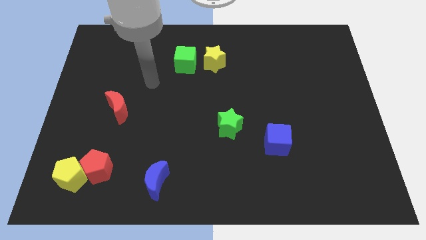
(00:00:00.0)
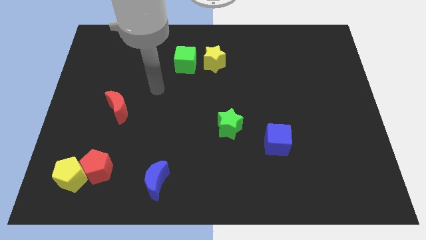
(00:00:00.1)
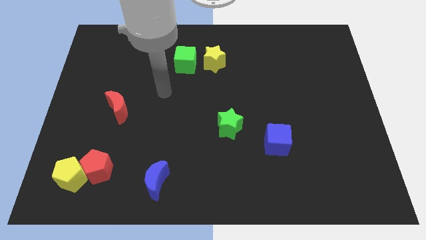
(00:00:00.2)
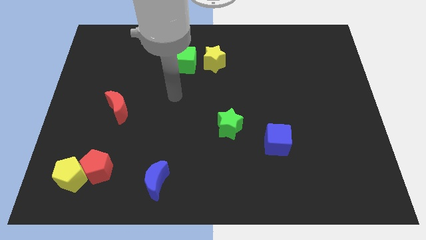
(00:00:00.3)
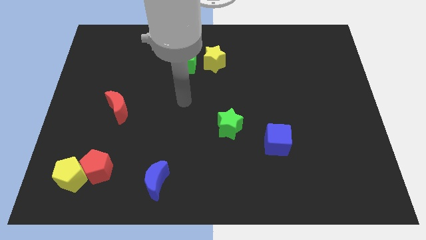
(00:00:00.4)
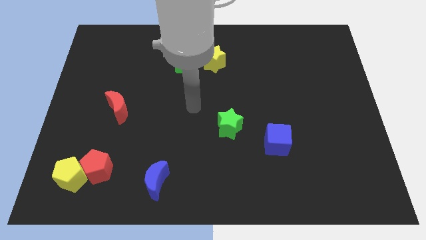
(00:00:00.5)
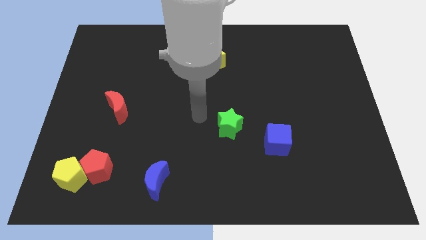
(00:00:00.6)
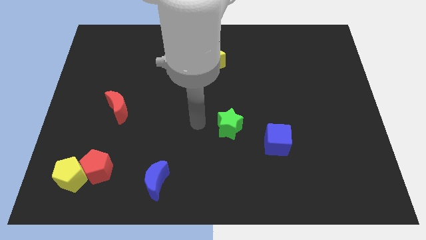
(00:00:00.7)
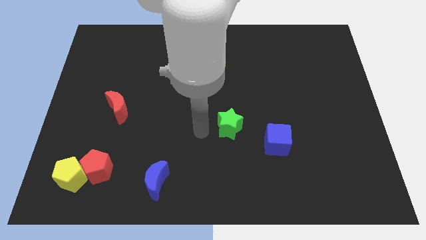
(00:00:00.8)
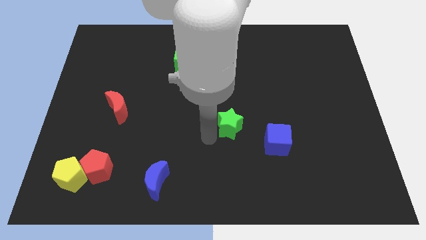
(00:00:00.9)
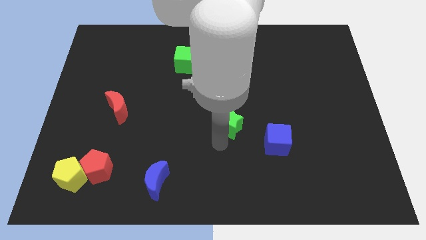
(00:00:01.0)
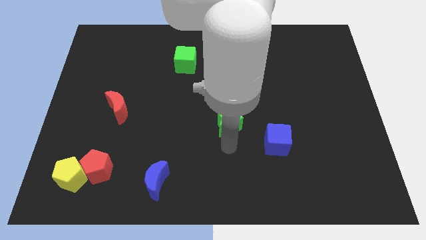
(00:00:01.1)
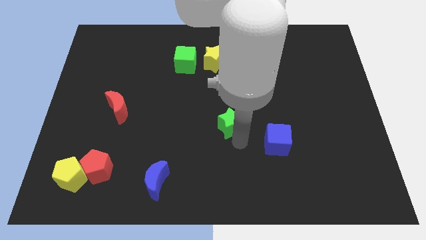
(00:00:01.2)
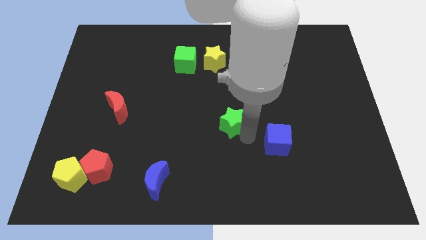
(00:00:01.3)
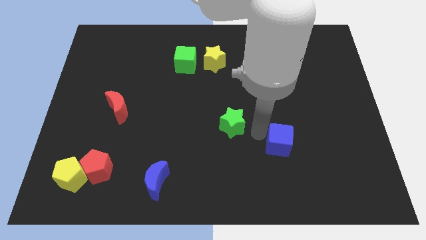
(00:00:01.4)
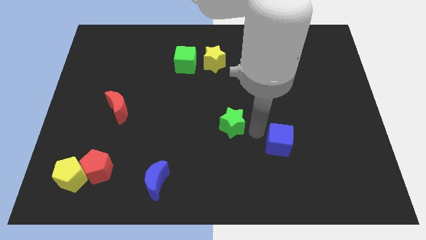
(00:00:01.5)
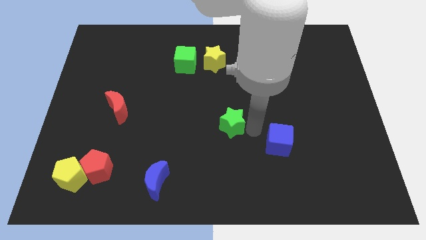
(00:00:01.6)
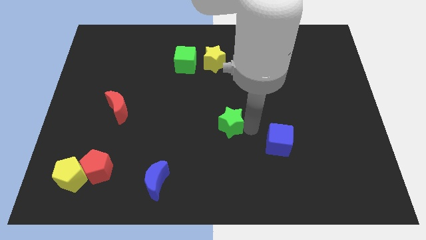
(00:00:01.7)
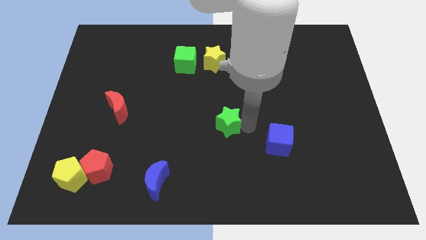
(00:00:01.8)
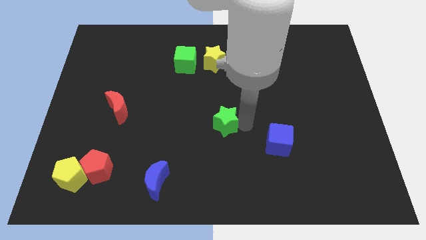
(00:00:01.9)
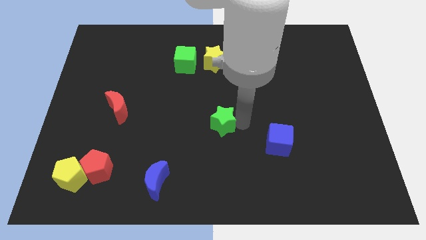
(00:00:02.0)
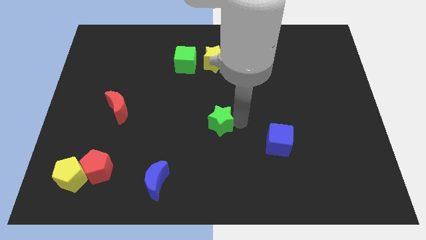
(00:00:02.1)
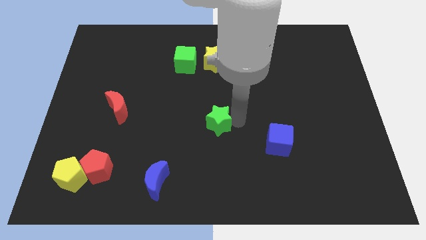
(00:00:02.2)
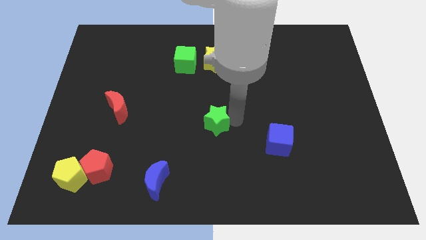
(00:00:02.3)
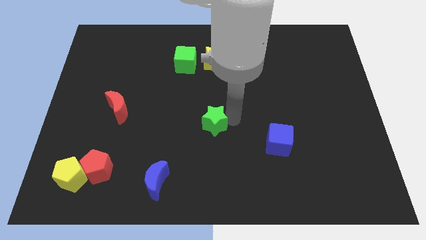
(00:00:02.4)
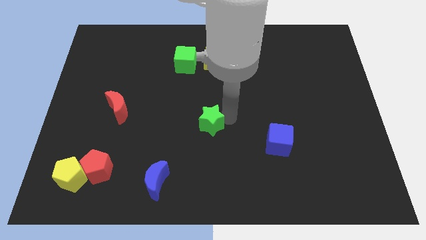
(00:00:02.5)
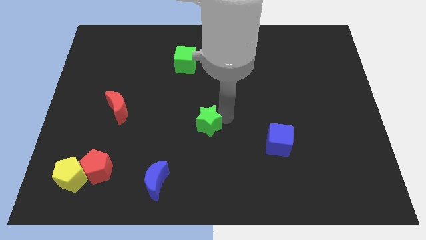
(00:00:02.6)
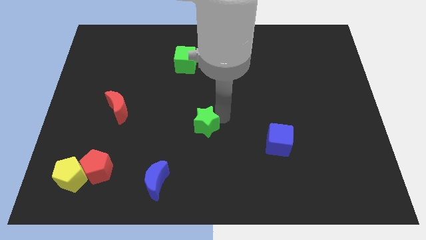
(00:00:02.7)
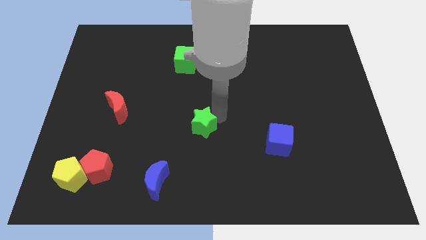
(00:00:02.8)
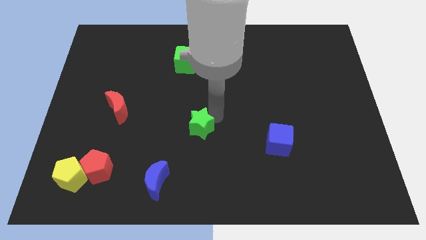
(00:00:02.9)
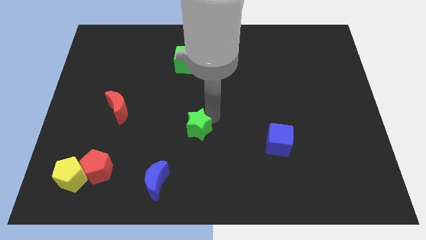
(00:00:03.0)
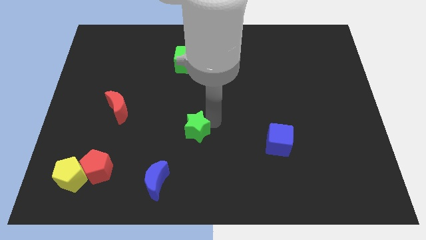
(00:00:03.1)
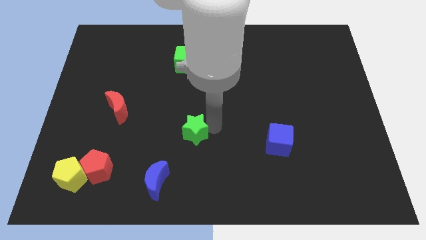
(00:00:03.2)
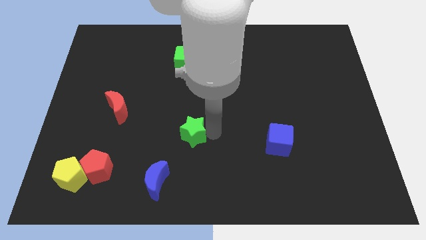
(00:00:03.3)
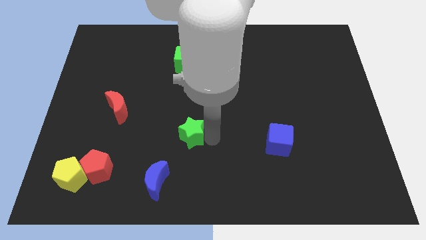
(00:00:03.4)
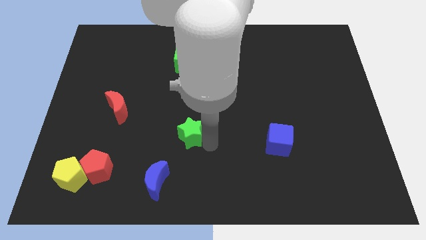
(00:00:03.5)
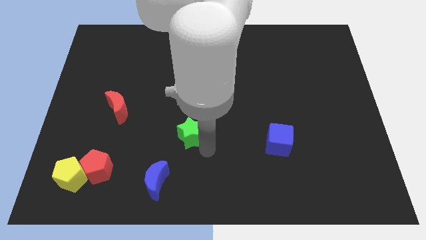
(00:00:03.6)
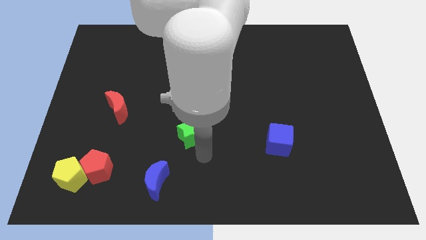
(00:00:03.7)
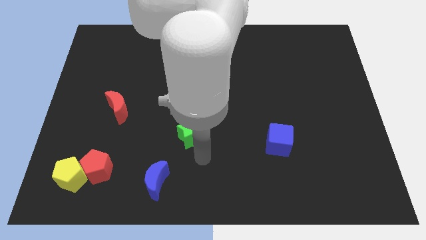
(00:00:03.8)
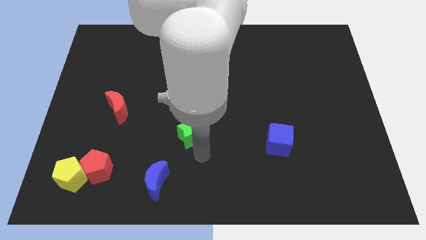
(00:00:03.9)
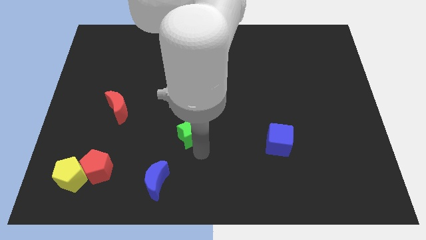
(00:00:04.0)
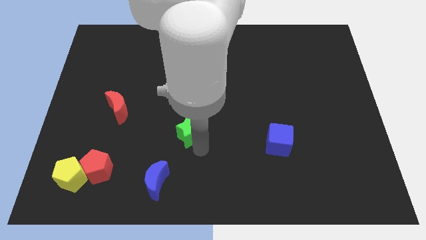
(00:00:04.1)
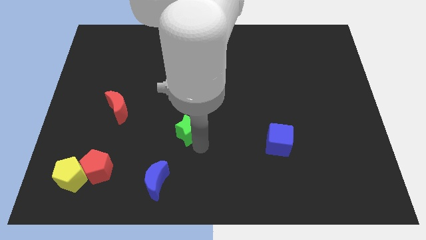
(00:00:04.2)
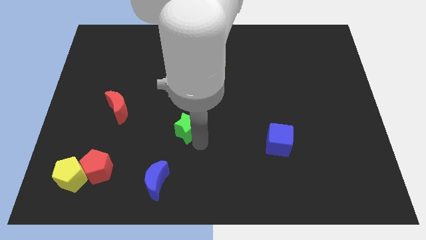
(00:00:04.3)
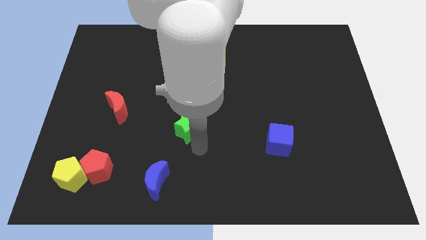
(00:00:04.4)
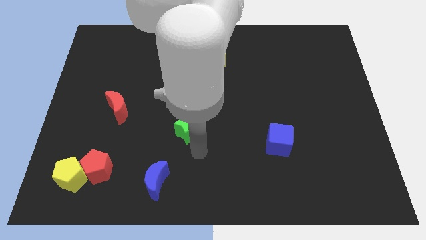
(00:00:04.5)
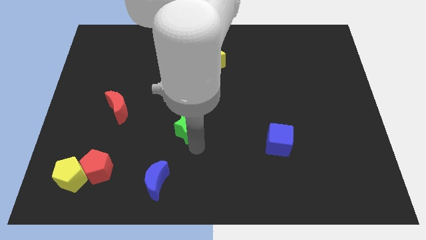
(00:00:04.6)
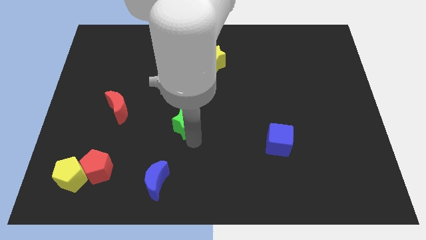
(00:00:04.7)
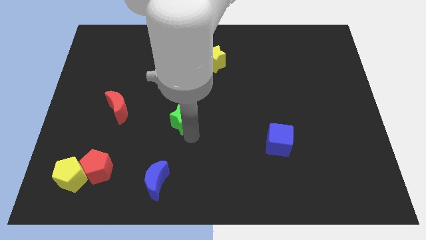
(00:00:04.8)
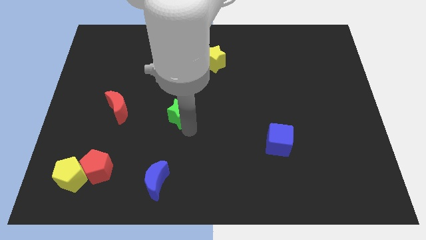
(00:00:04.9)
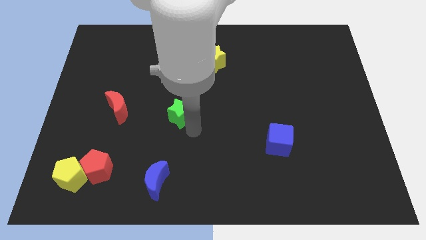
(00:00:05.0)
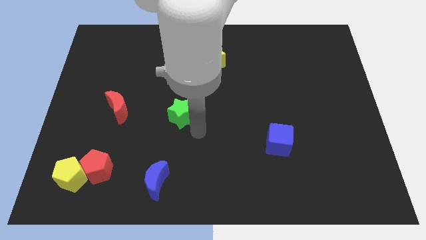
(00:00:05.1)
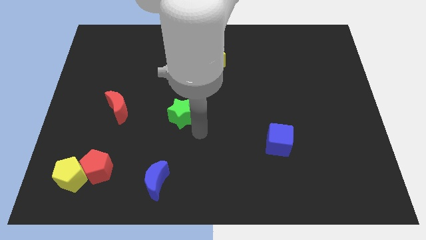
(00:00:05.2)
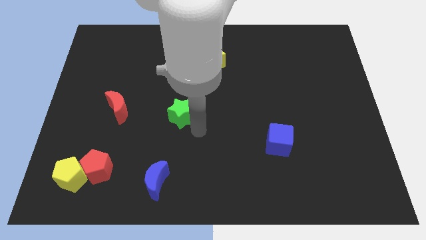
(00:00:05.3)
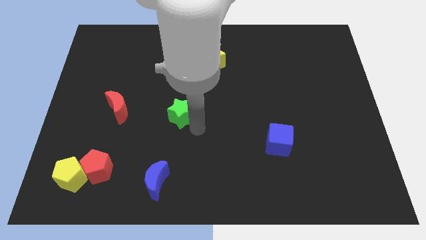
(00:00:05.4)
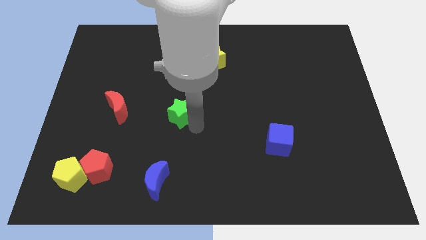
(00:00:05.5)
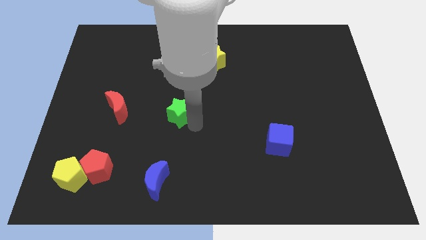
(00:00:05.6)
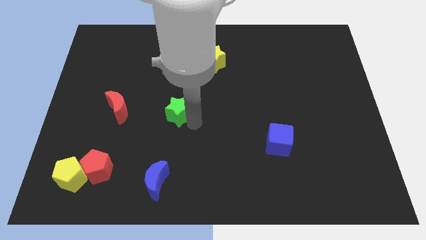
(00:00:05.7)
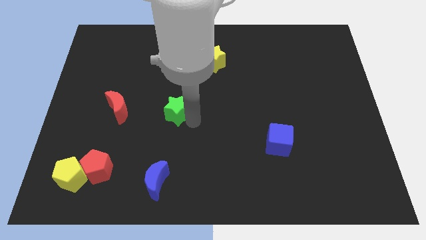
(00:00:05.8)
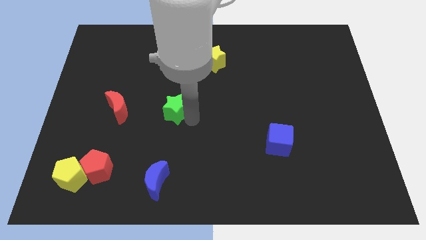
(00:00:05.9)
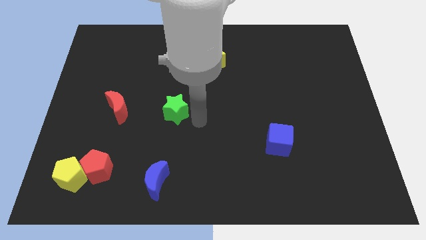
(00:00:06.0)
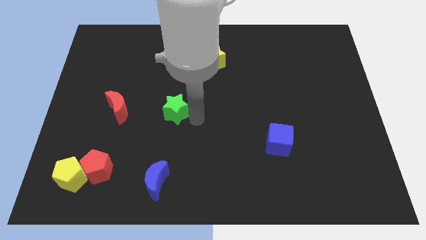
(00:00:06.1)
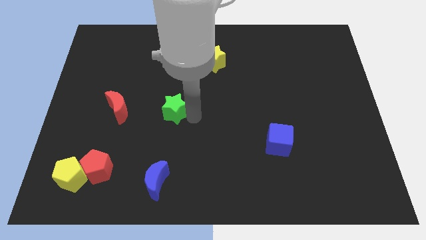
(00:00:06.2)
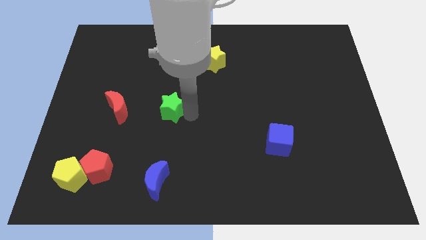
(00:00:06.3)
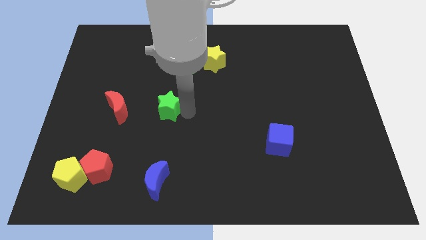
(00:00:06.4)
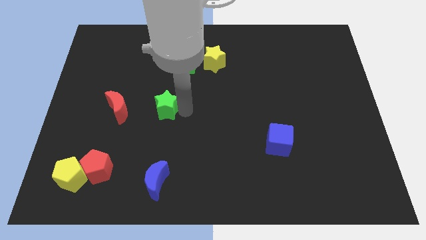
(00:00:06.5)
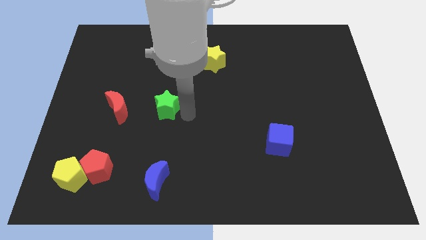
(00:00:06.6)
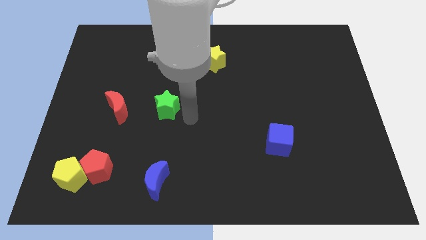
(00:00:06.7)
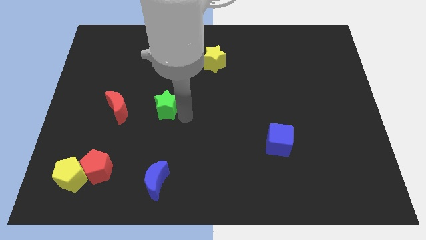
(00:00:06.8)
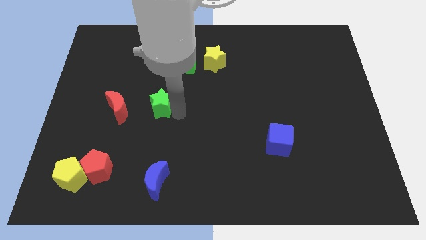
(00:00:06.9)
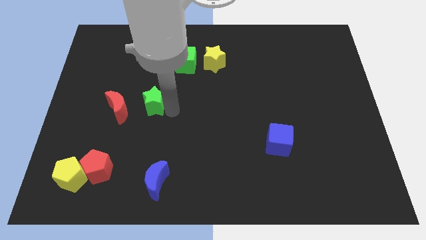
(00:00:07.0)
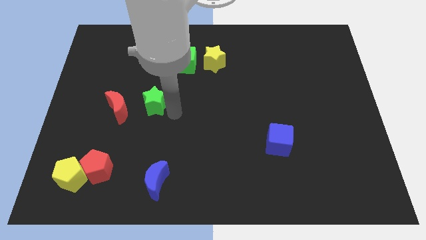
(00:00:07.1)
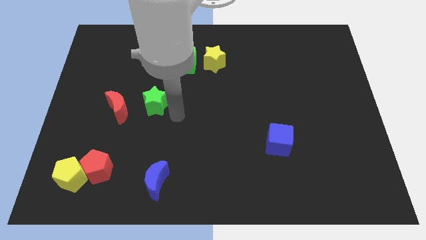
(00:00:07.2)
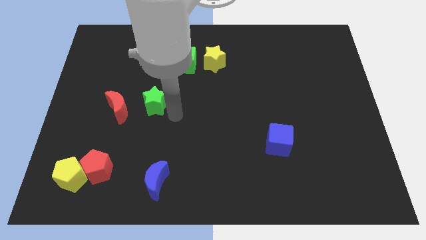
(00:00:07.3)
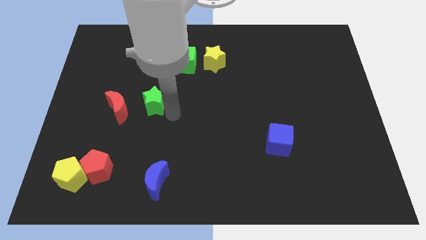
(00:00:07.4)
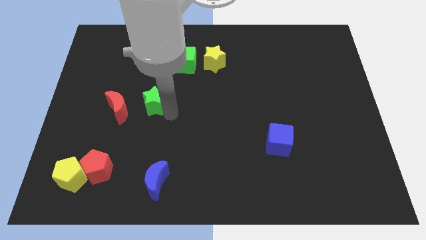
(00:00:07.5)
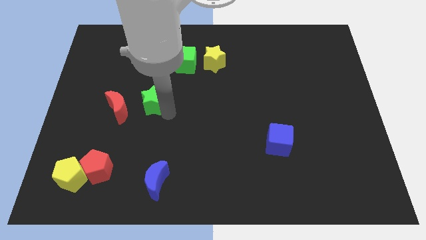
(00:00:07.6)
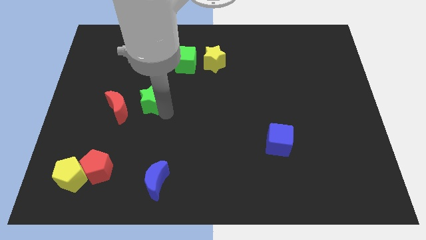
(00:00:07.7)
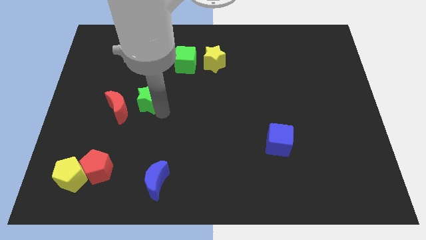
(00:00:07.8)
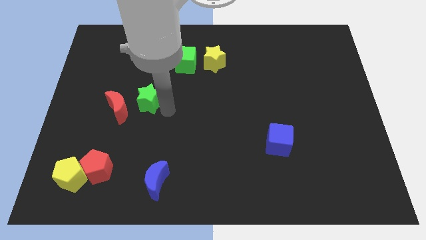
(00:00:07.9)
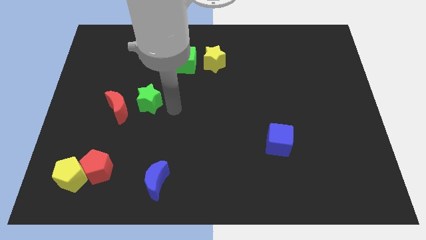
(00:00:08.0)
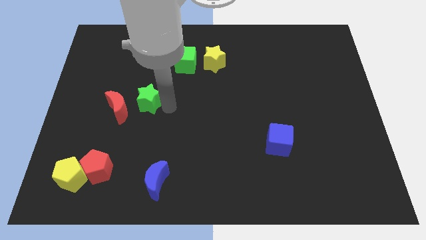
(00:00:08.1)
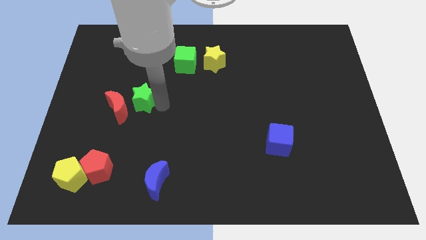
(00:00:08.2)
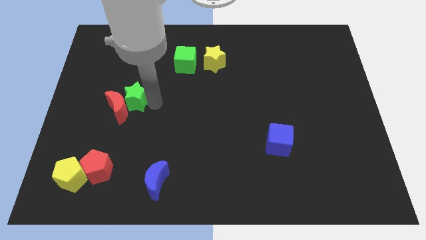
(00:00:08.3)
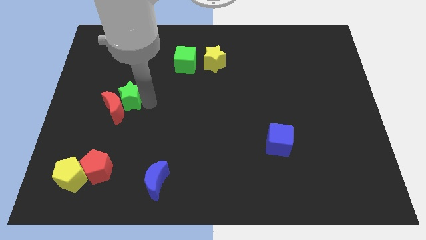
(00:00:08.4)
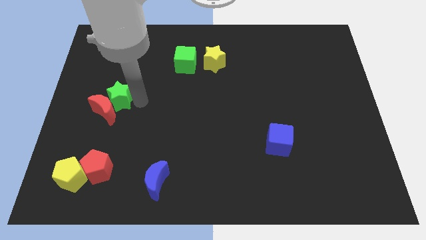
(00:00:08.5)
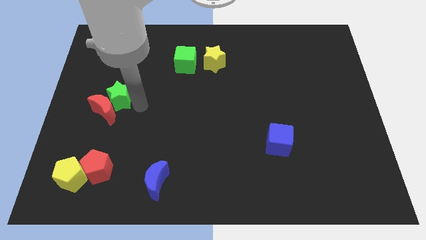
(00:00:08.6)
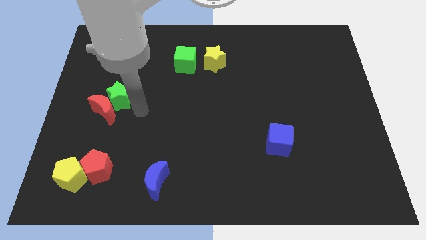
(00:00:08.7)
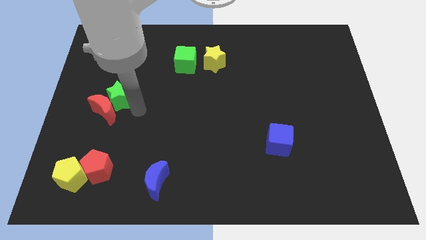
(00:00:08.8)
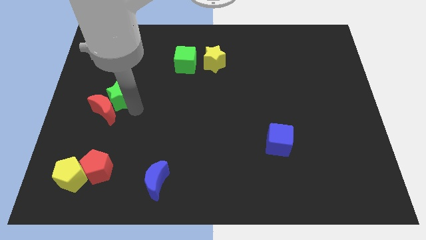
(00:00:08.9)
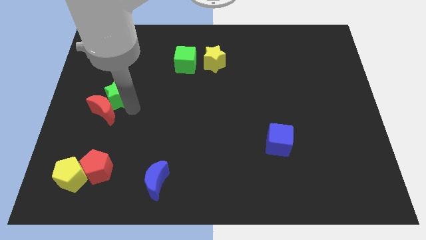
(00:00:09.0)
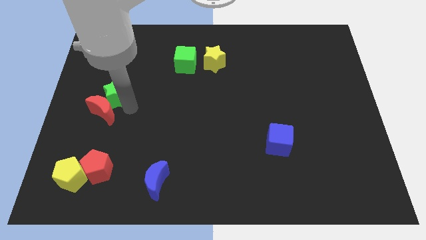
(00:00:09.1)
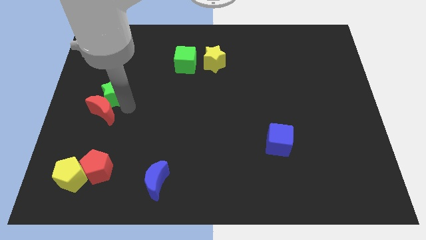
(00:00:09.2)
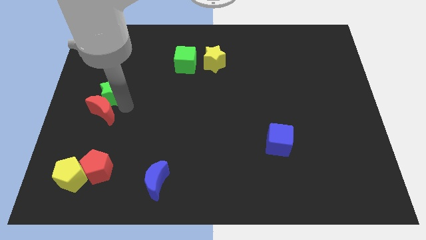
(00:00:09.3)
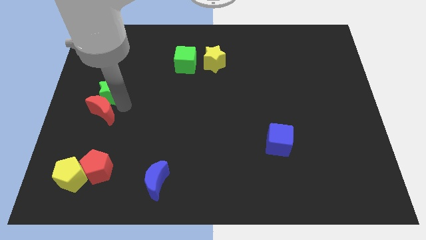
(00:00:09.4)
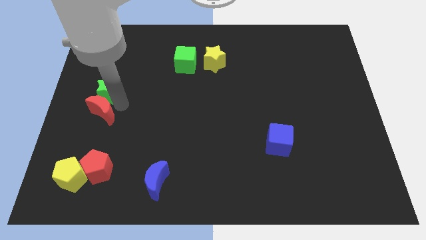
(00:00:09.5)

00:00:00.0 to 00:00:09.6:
slide the green star to the center left
